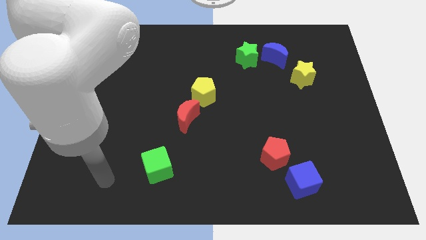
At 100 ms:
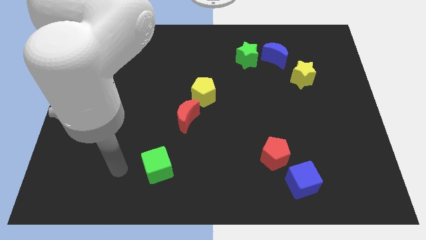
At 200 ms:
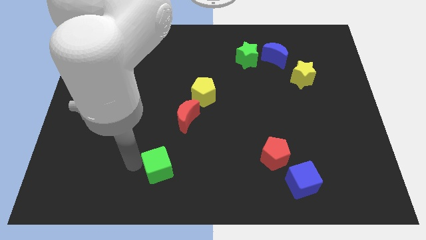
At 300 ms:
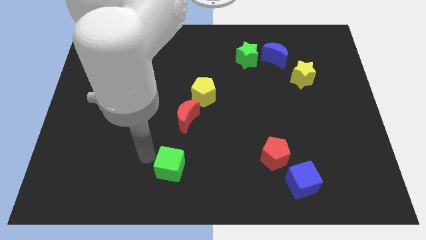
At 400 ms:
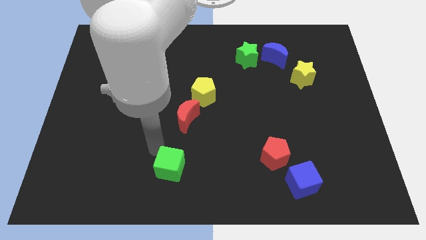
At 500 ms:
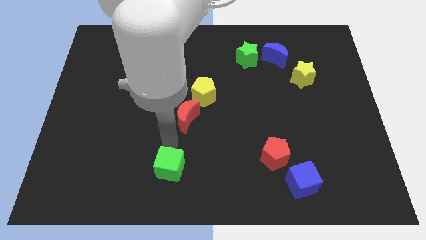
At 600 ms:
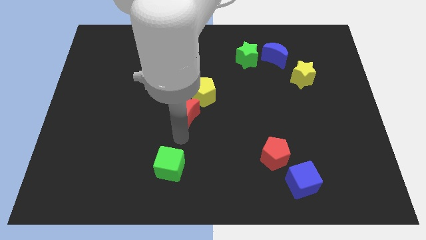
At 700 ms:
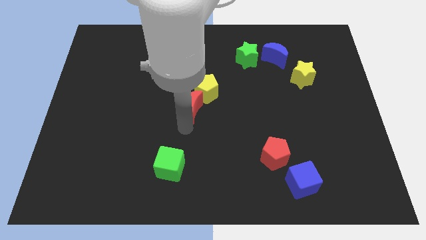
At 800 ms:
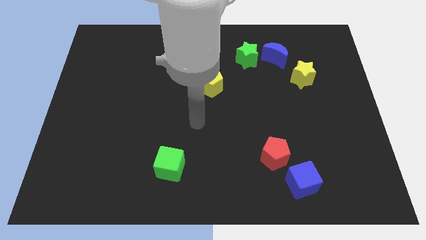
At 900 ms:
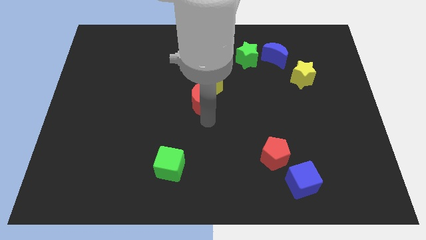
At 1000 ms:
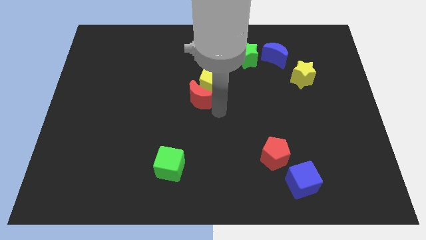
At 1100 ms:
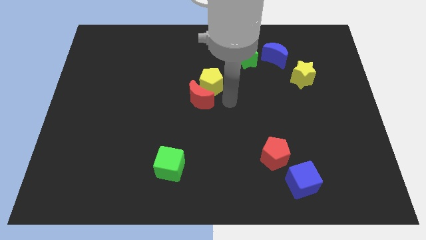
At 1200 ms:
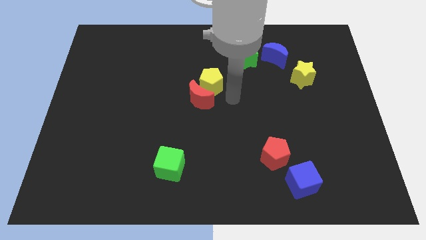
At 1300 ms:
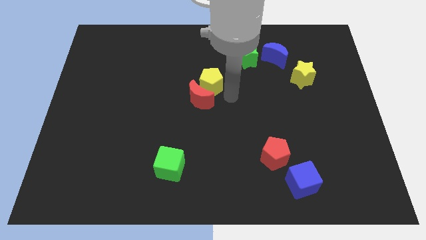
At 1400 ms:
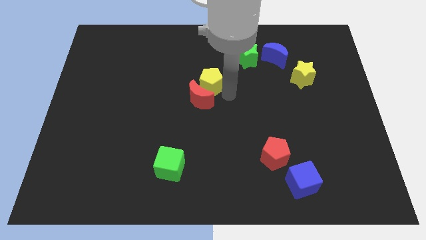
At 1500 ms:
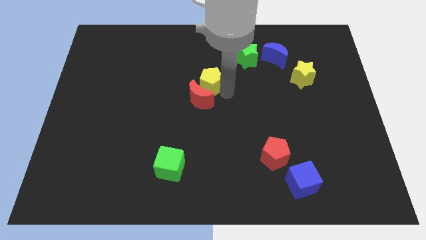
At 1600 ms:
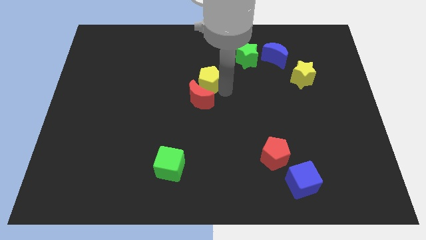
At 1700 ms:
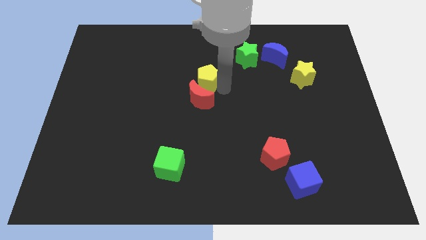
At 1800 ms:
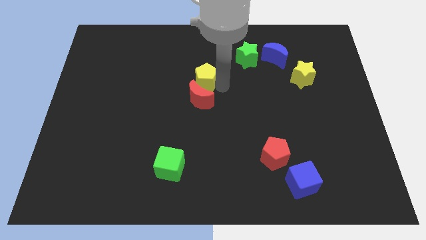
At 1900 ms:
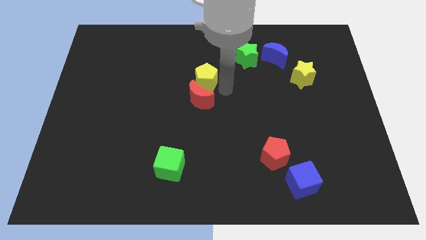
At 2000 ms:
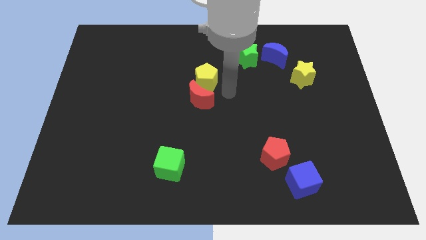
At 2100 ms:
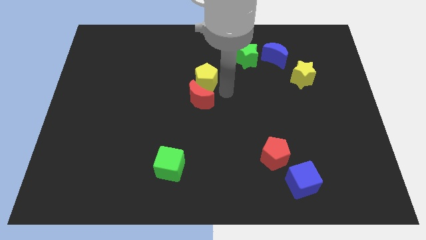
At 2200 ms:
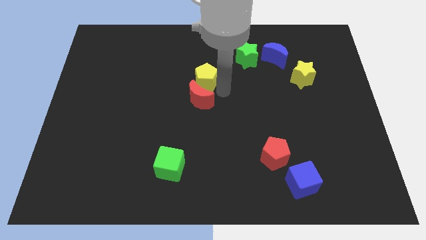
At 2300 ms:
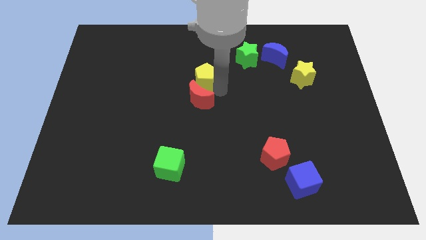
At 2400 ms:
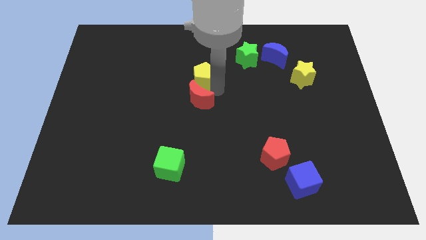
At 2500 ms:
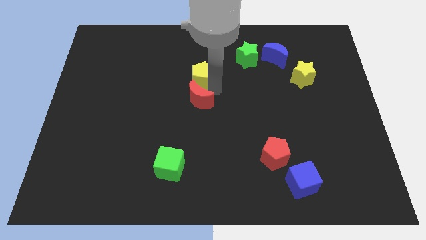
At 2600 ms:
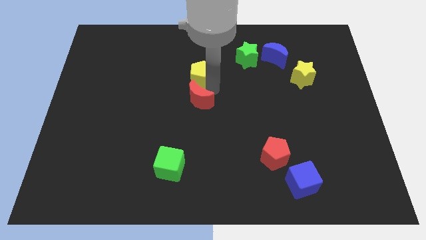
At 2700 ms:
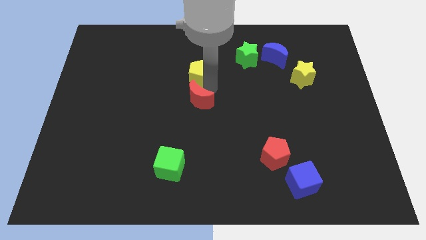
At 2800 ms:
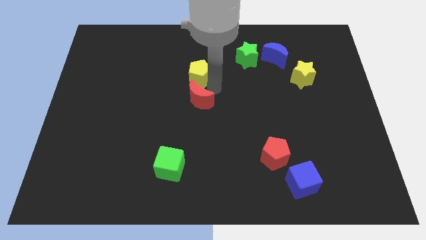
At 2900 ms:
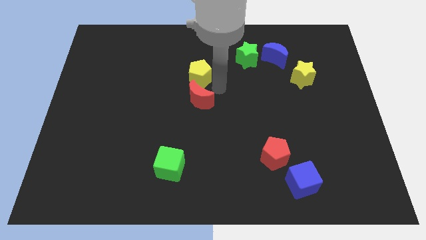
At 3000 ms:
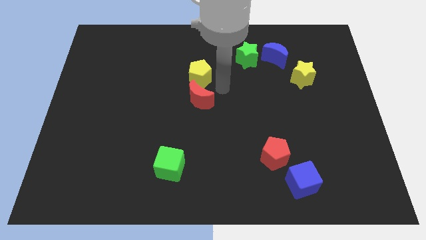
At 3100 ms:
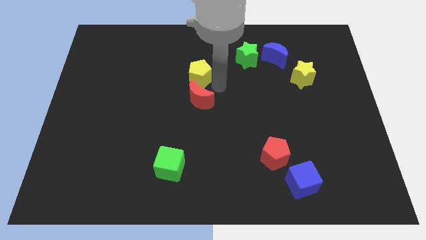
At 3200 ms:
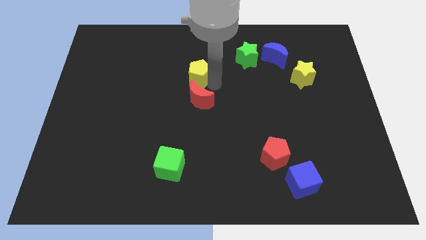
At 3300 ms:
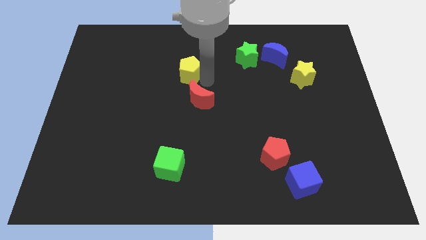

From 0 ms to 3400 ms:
slide the yellow pentagon upwards and to the left a little bit

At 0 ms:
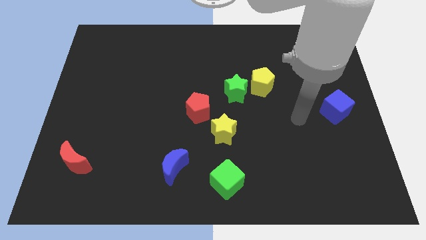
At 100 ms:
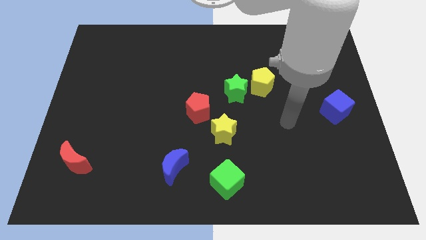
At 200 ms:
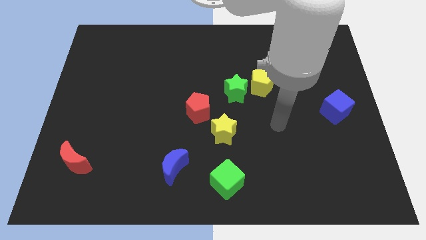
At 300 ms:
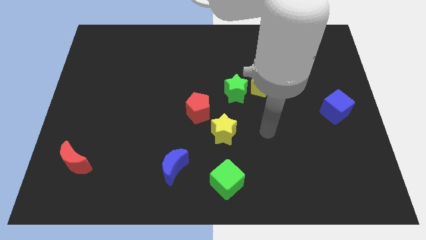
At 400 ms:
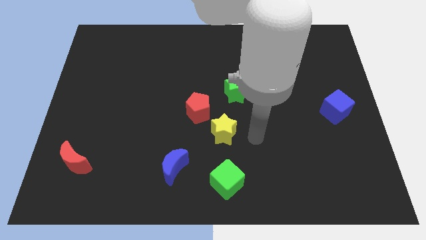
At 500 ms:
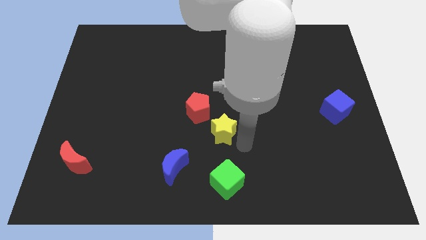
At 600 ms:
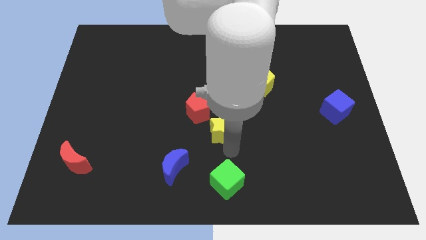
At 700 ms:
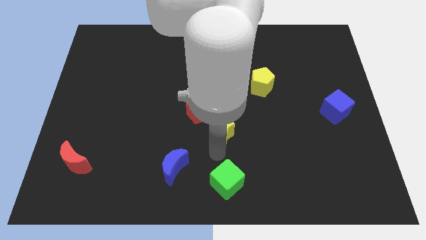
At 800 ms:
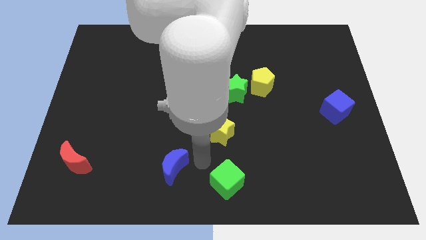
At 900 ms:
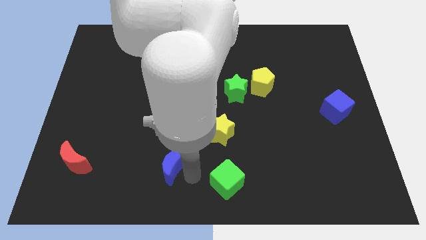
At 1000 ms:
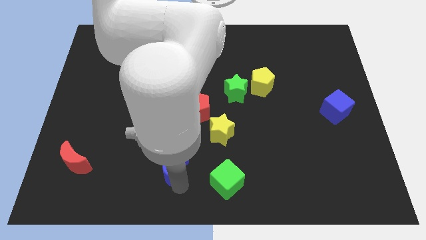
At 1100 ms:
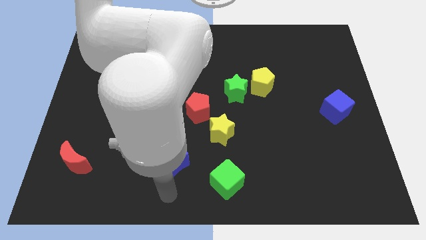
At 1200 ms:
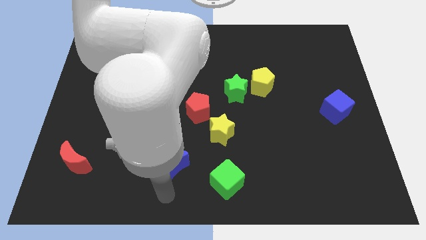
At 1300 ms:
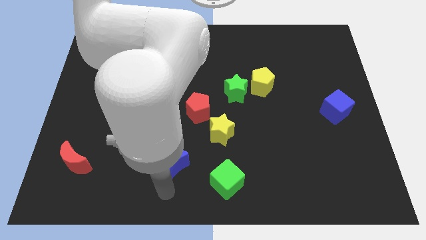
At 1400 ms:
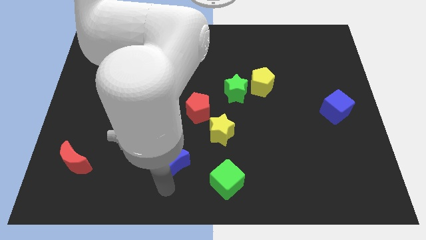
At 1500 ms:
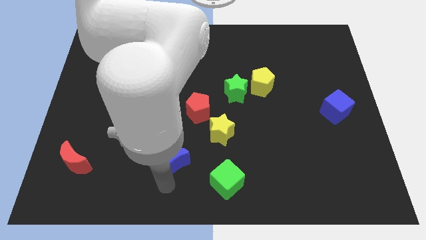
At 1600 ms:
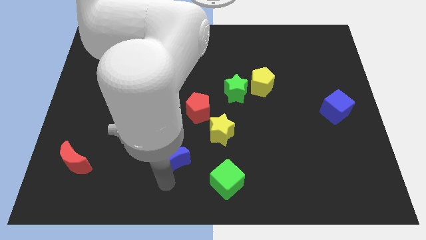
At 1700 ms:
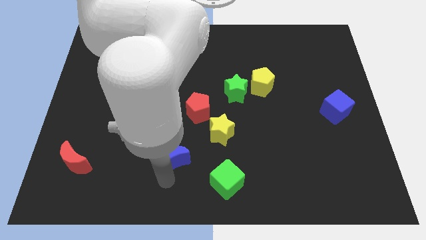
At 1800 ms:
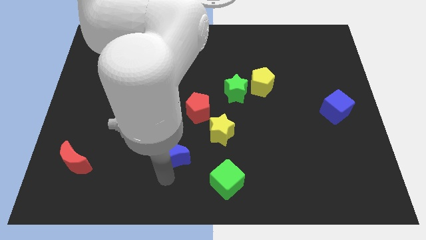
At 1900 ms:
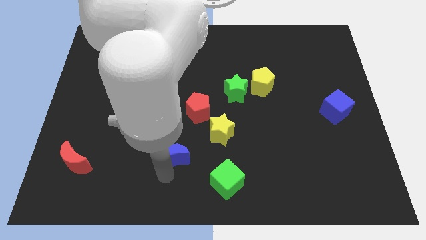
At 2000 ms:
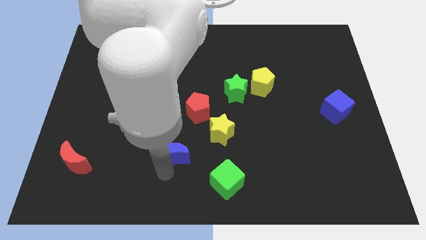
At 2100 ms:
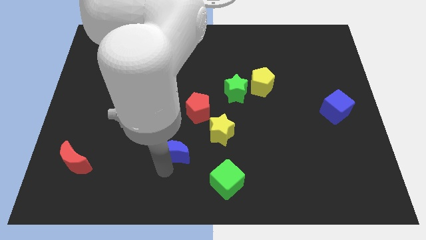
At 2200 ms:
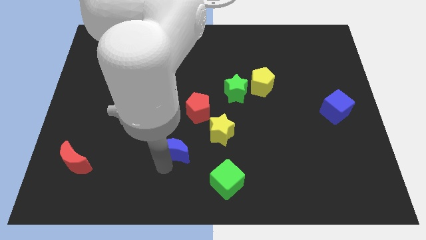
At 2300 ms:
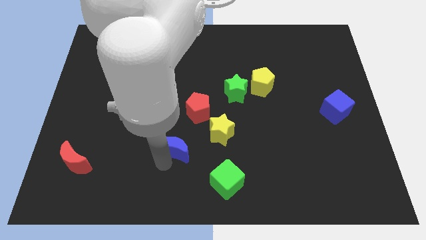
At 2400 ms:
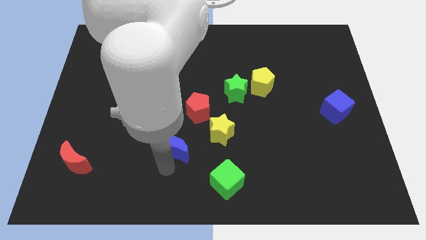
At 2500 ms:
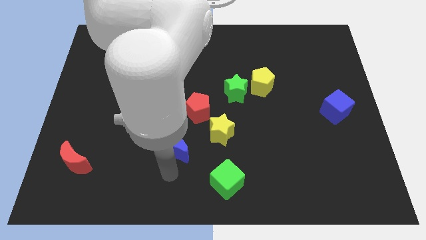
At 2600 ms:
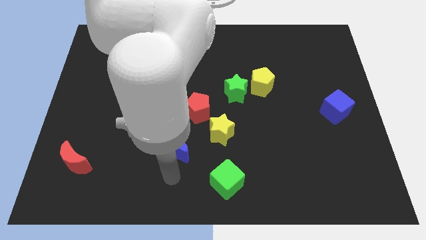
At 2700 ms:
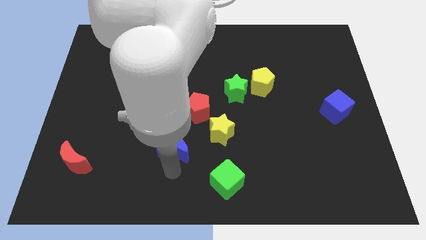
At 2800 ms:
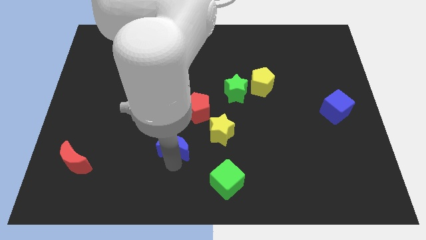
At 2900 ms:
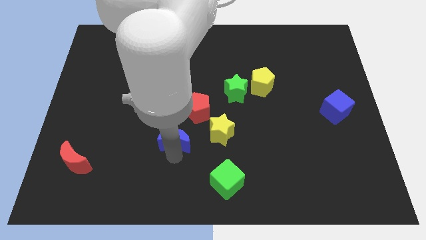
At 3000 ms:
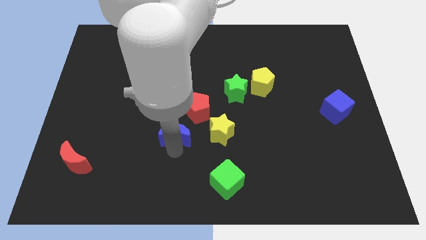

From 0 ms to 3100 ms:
slightly move the blue moon up

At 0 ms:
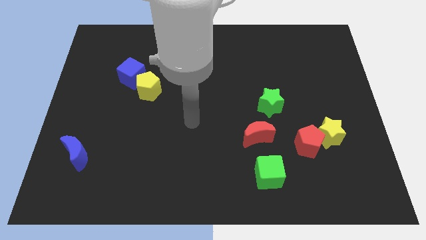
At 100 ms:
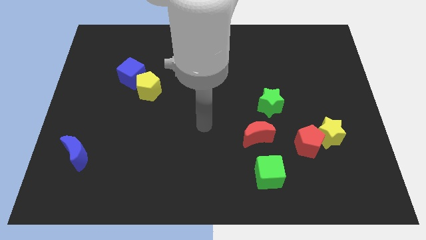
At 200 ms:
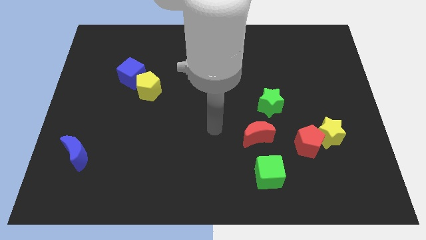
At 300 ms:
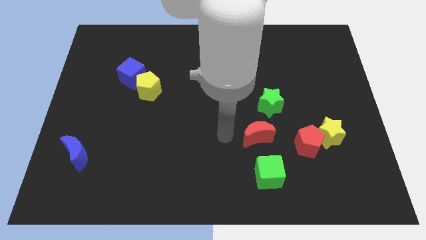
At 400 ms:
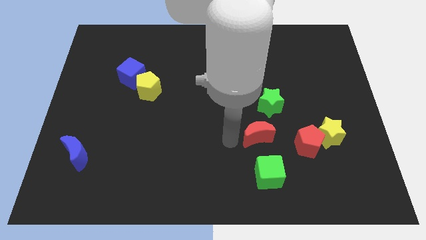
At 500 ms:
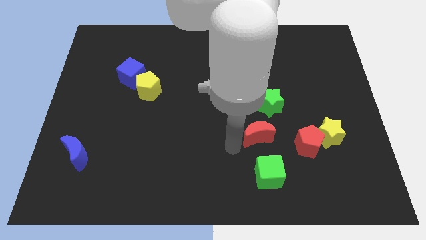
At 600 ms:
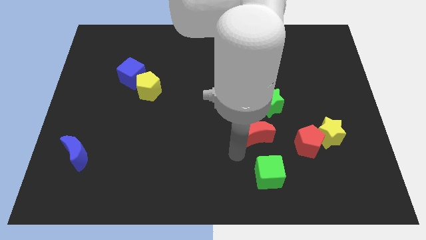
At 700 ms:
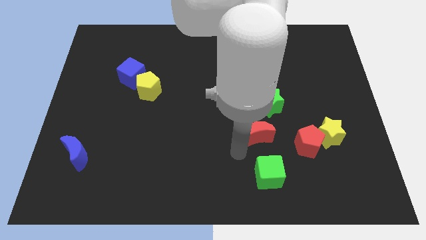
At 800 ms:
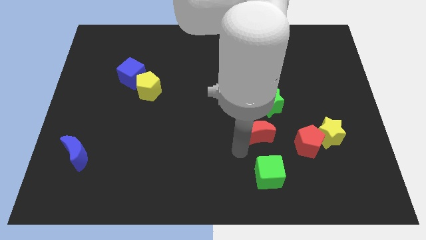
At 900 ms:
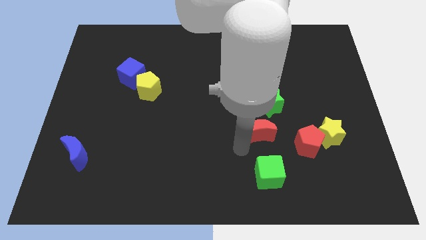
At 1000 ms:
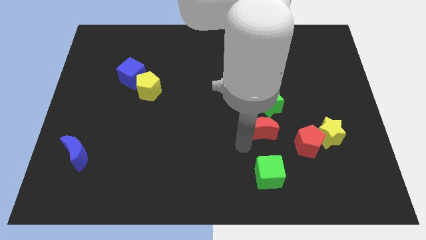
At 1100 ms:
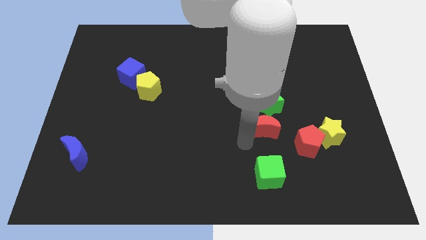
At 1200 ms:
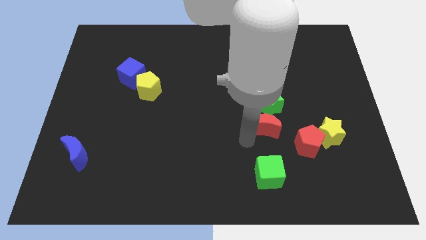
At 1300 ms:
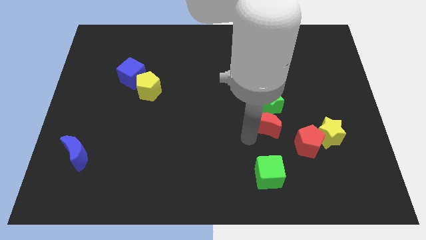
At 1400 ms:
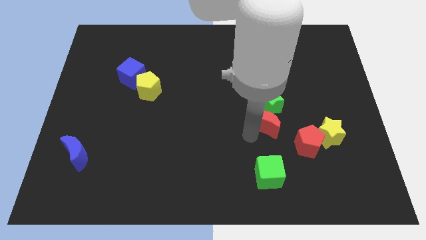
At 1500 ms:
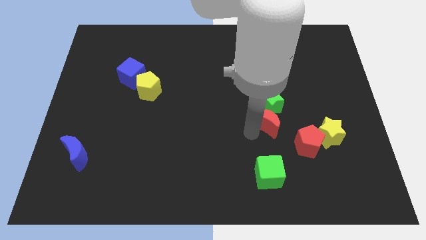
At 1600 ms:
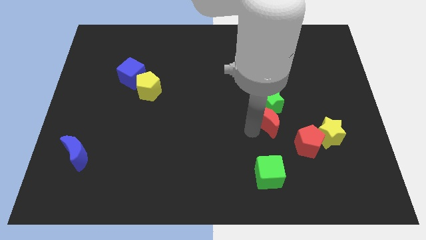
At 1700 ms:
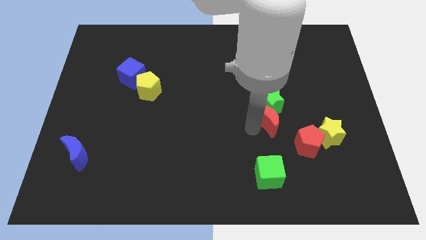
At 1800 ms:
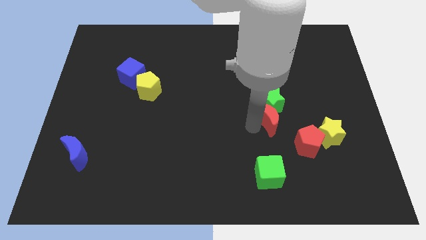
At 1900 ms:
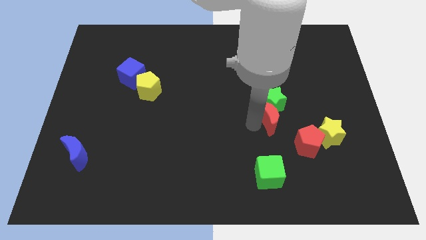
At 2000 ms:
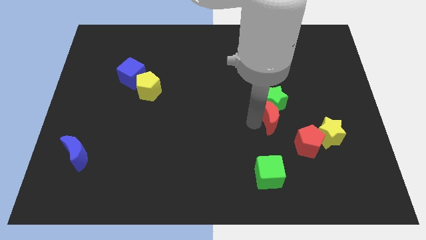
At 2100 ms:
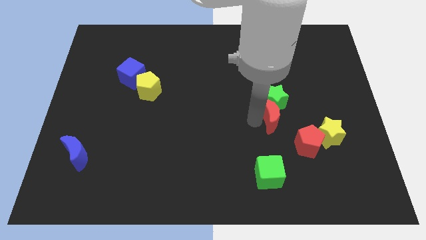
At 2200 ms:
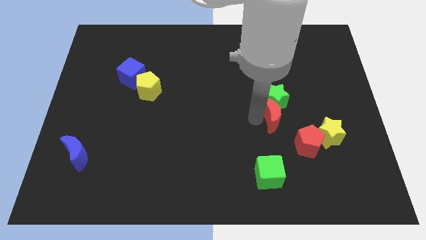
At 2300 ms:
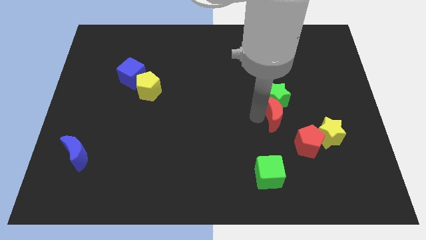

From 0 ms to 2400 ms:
slightly move the red moon diagonally upwards and right
